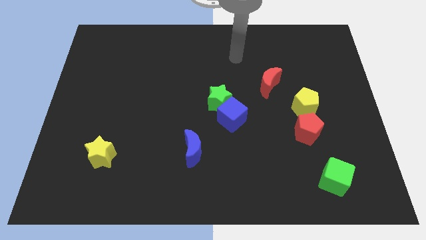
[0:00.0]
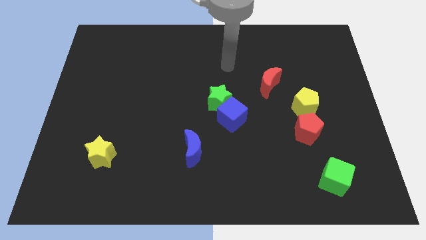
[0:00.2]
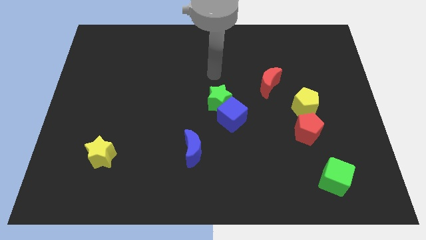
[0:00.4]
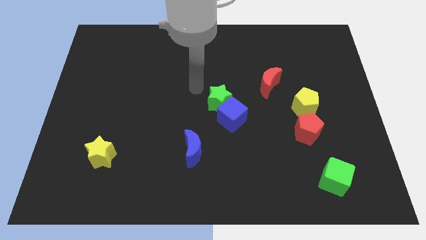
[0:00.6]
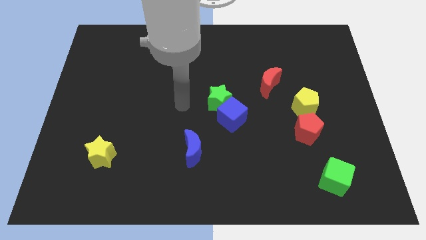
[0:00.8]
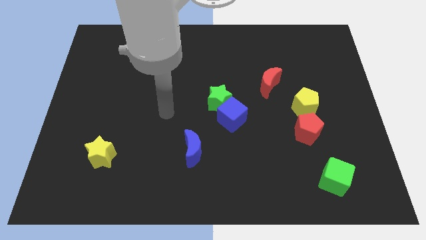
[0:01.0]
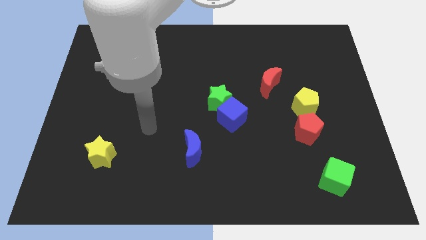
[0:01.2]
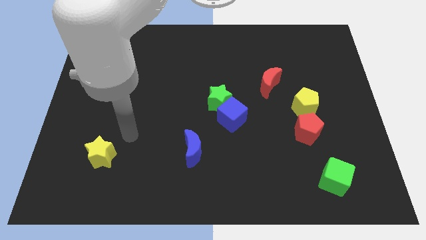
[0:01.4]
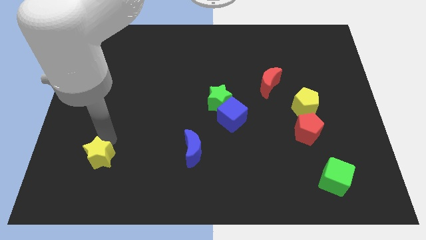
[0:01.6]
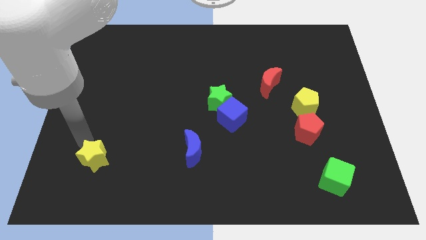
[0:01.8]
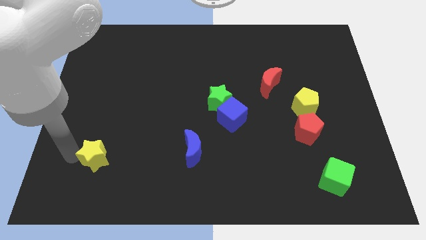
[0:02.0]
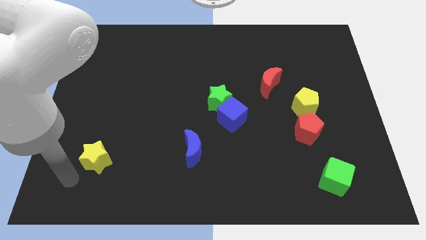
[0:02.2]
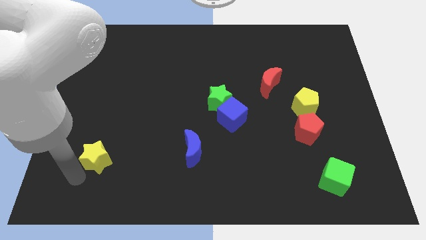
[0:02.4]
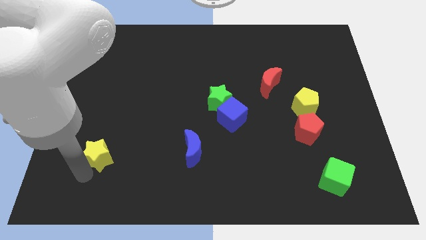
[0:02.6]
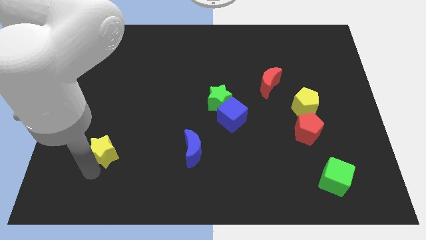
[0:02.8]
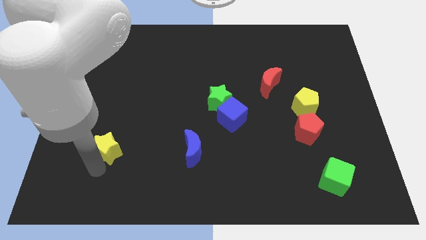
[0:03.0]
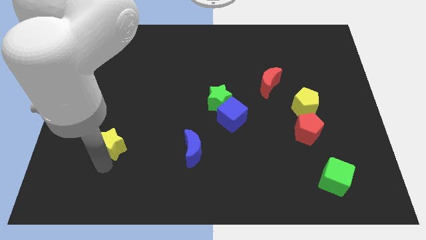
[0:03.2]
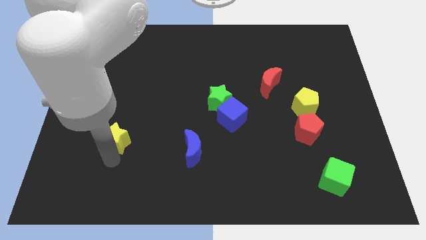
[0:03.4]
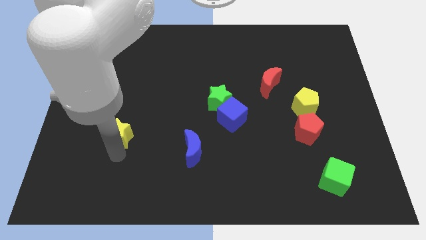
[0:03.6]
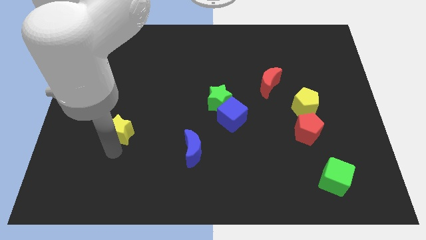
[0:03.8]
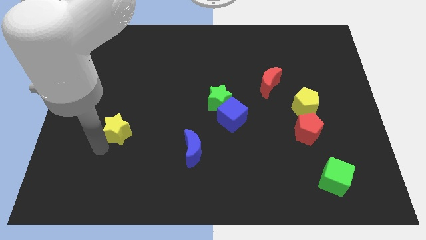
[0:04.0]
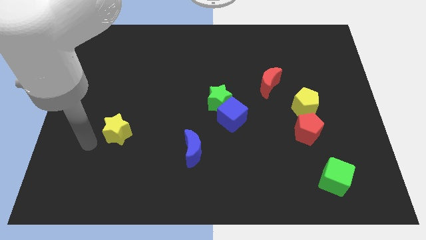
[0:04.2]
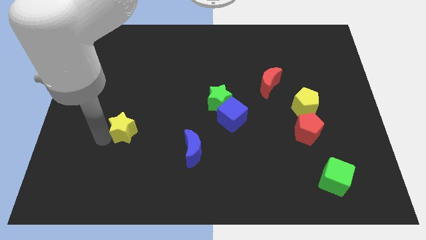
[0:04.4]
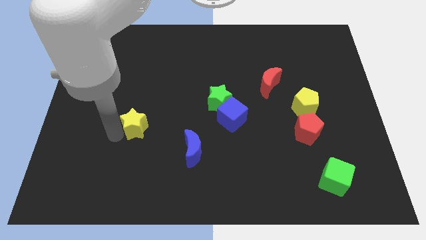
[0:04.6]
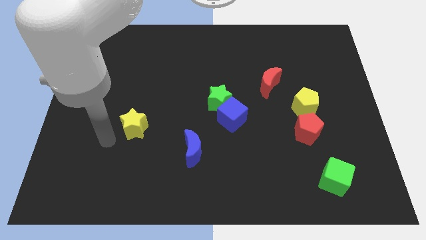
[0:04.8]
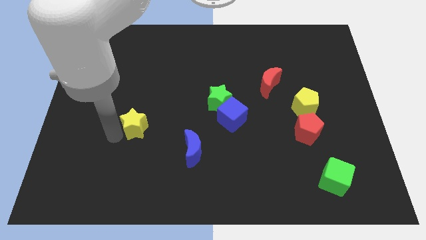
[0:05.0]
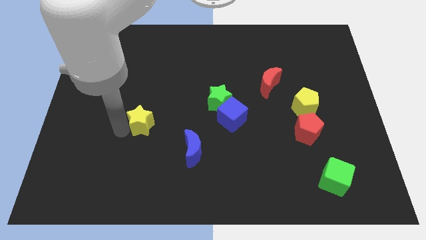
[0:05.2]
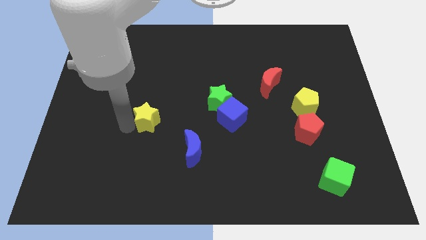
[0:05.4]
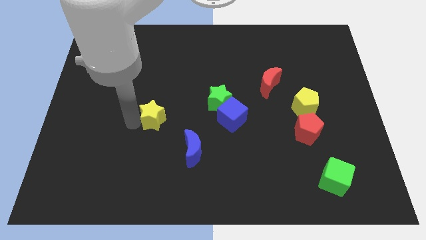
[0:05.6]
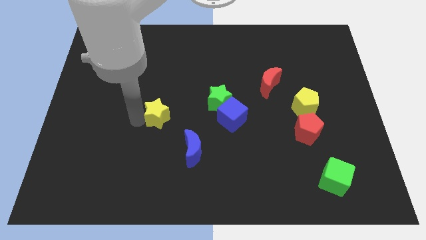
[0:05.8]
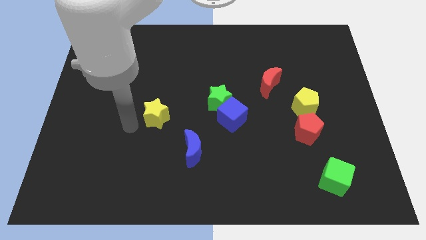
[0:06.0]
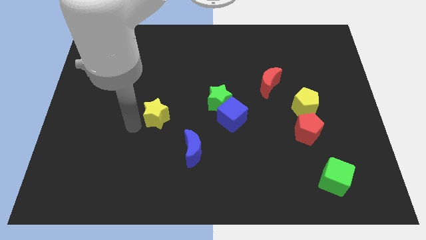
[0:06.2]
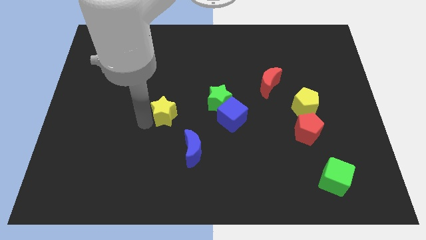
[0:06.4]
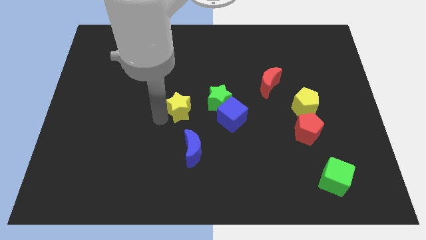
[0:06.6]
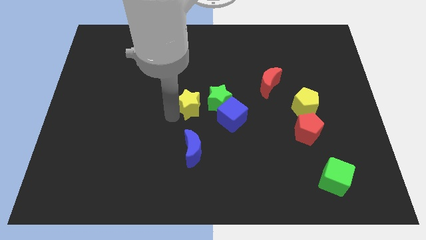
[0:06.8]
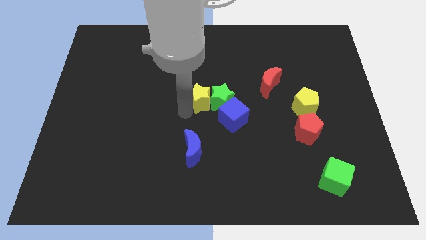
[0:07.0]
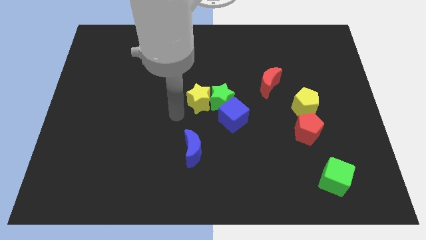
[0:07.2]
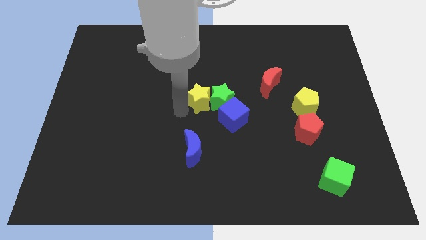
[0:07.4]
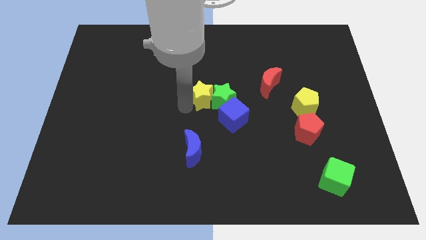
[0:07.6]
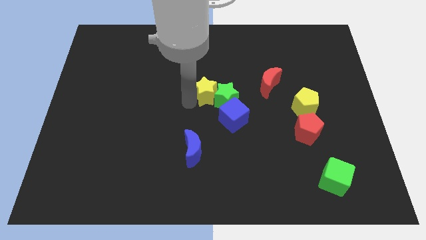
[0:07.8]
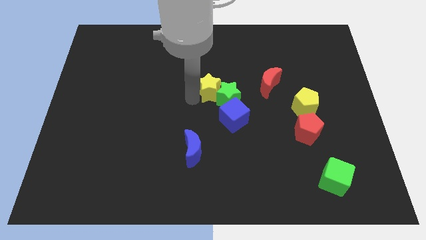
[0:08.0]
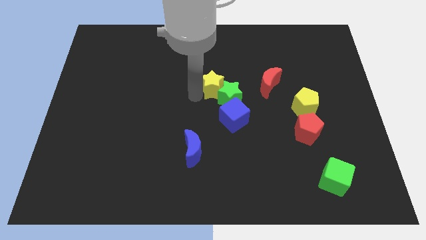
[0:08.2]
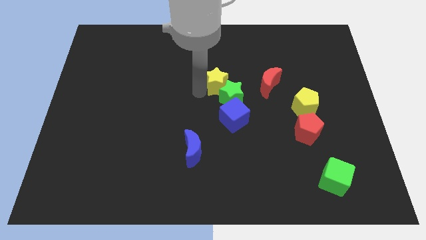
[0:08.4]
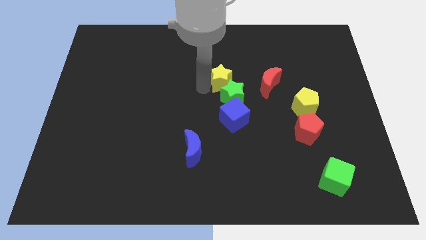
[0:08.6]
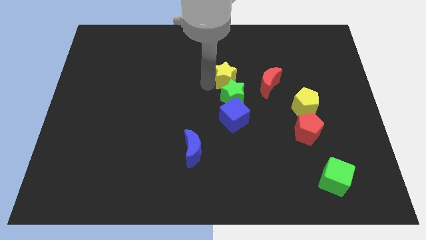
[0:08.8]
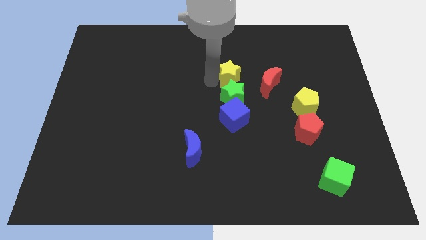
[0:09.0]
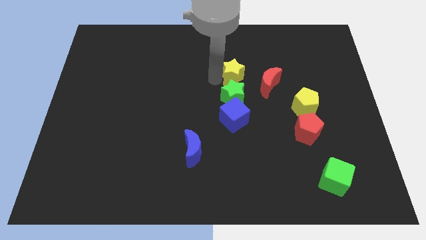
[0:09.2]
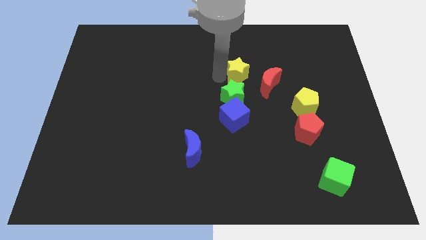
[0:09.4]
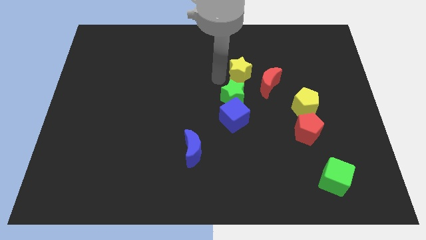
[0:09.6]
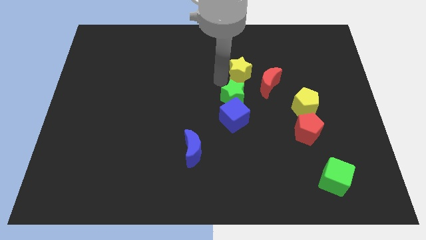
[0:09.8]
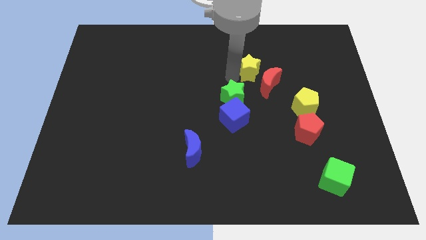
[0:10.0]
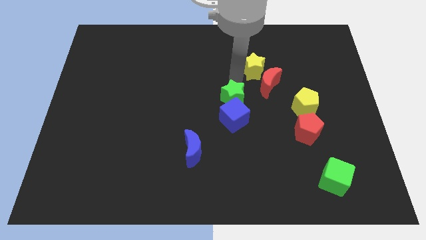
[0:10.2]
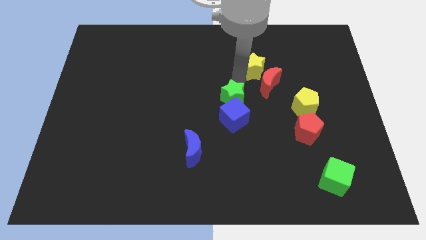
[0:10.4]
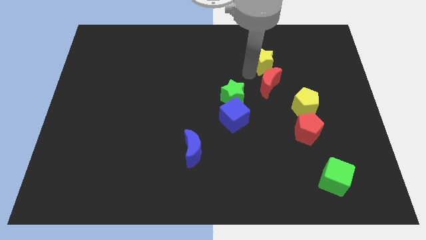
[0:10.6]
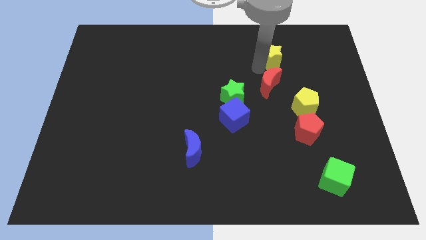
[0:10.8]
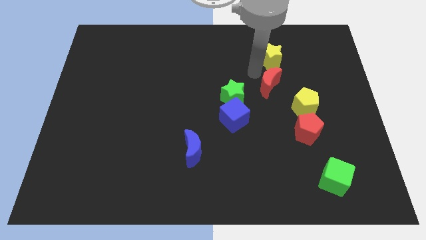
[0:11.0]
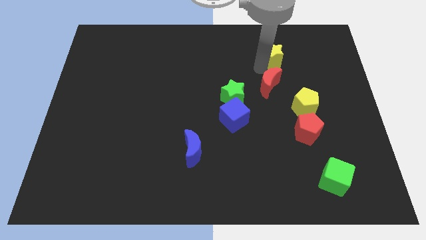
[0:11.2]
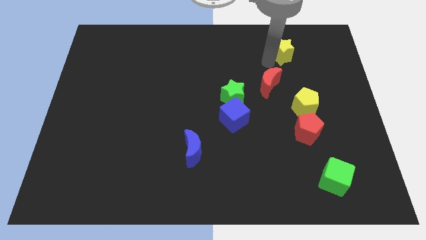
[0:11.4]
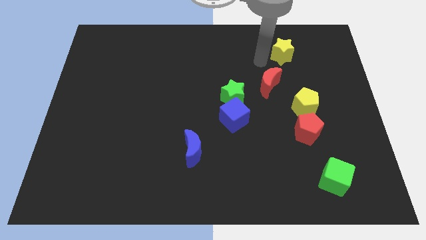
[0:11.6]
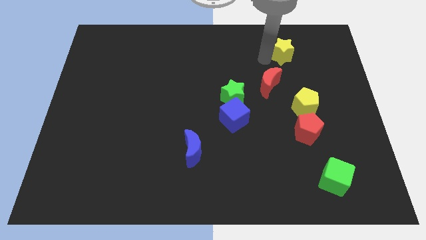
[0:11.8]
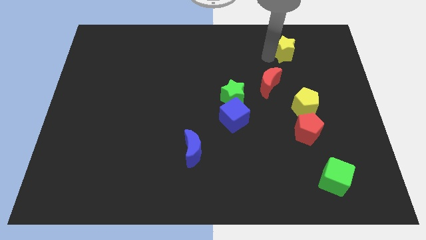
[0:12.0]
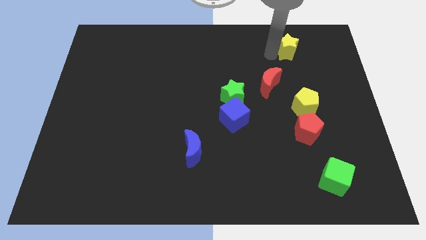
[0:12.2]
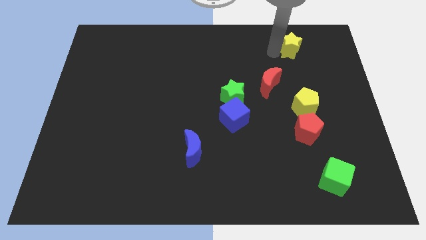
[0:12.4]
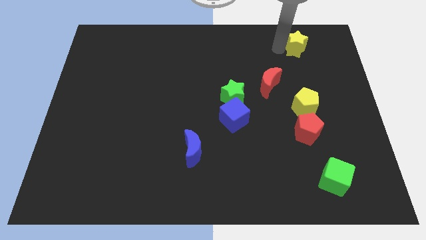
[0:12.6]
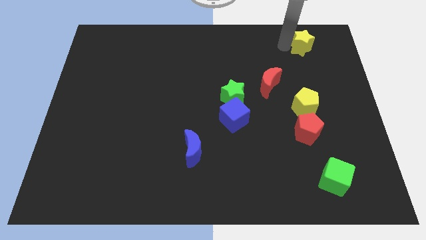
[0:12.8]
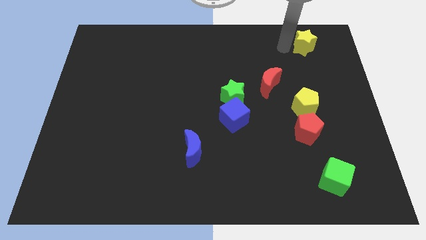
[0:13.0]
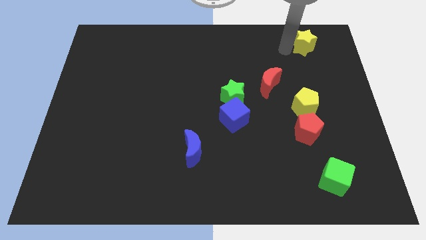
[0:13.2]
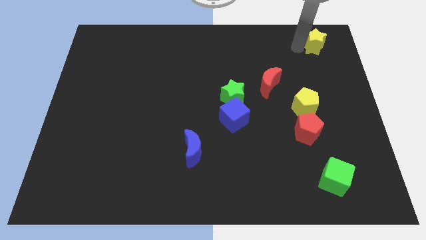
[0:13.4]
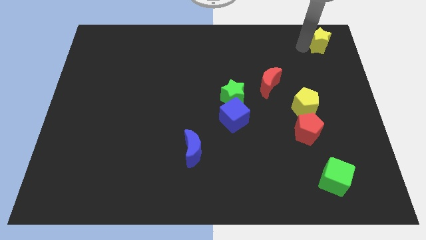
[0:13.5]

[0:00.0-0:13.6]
move the yellow star to the top right

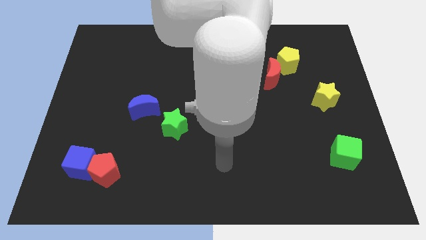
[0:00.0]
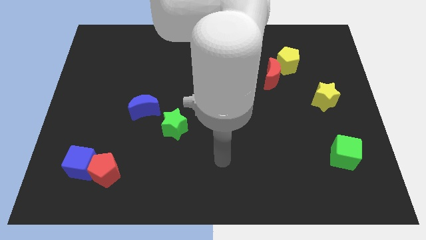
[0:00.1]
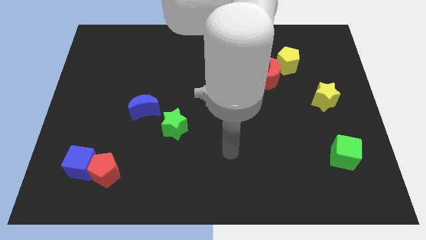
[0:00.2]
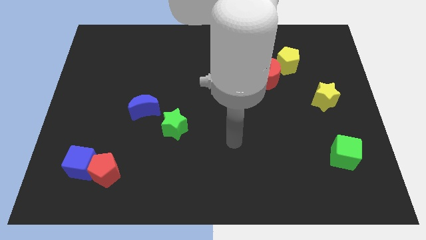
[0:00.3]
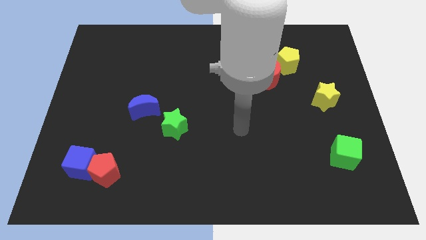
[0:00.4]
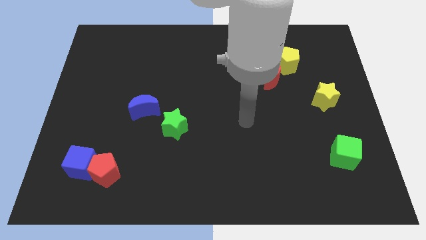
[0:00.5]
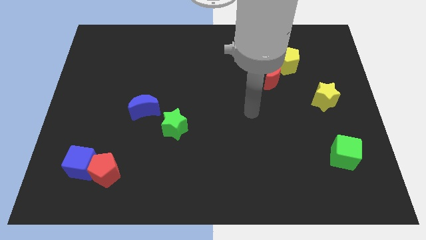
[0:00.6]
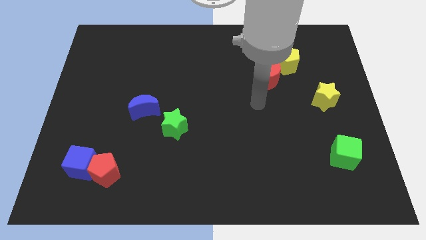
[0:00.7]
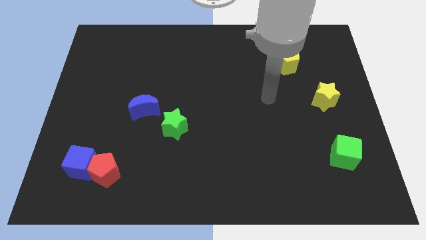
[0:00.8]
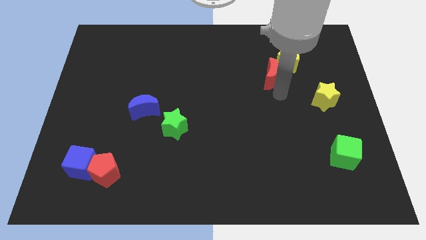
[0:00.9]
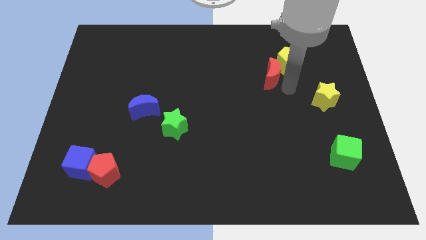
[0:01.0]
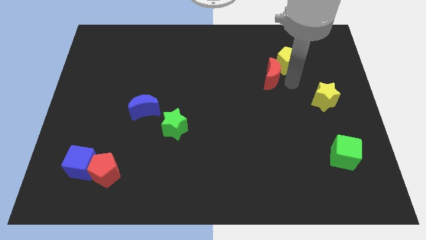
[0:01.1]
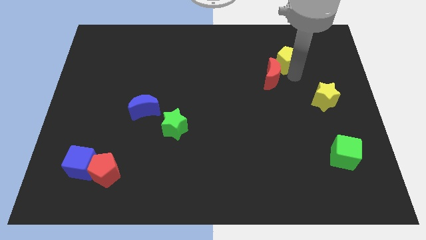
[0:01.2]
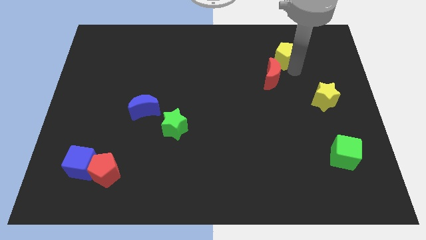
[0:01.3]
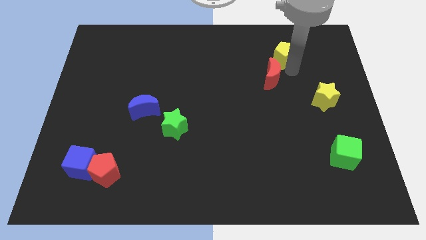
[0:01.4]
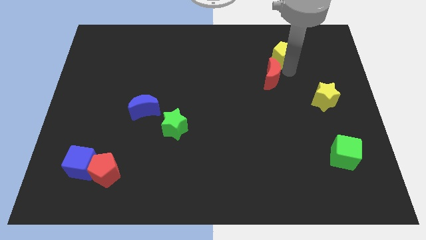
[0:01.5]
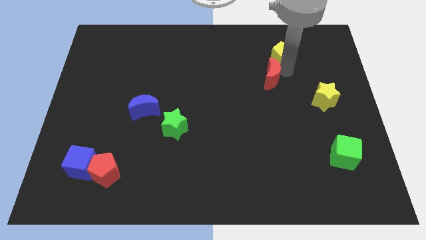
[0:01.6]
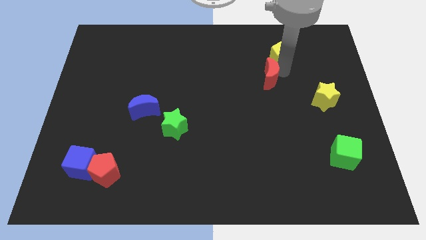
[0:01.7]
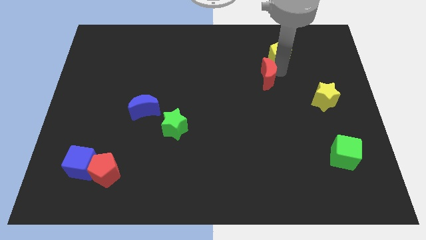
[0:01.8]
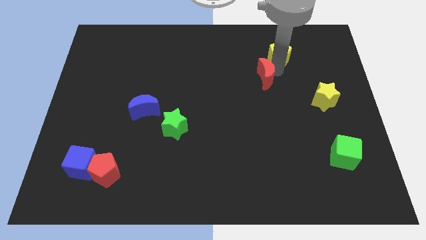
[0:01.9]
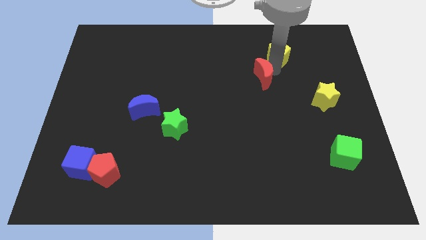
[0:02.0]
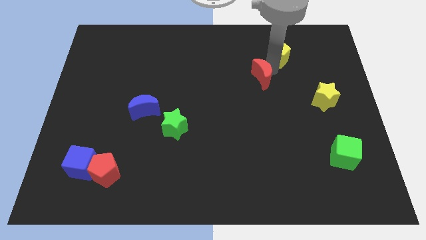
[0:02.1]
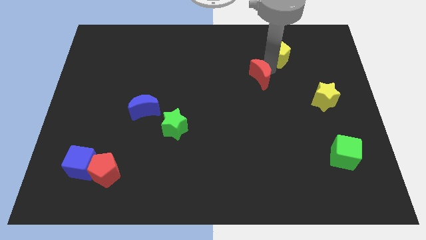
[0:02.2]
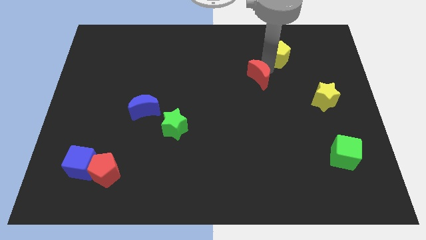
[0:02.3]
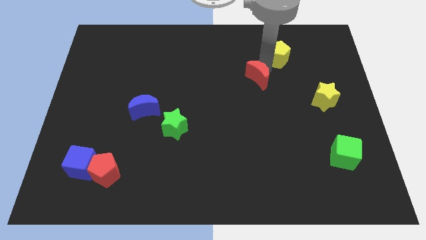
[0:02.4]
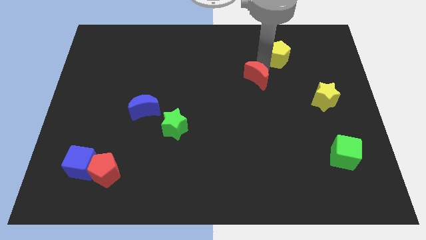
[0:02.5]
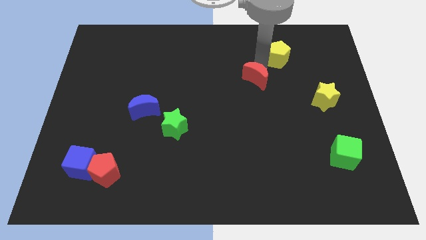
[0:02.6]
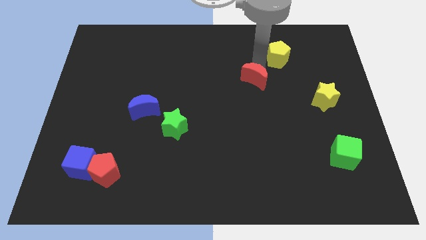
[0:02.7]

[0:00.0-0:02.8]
move the red moon to the center
